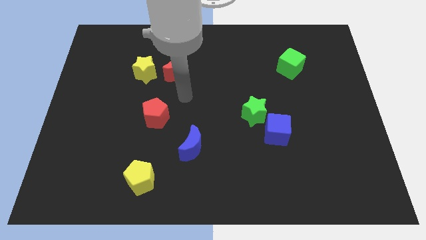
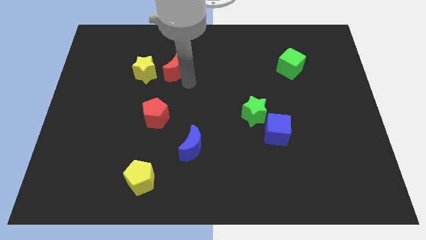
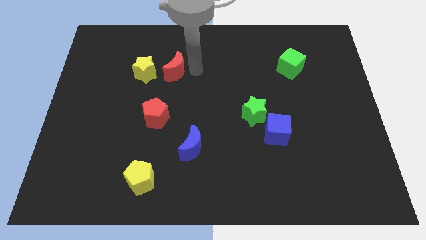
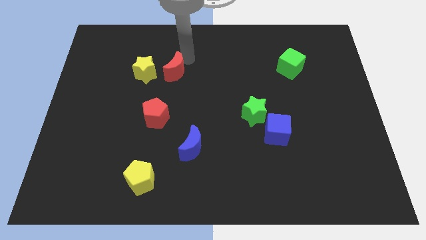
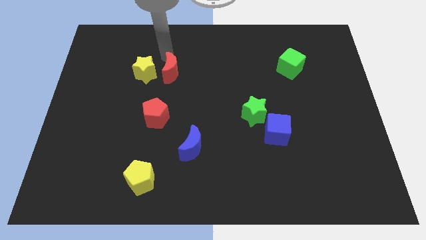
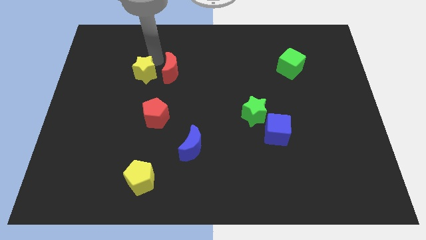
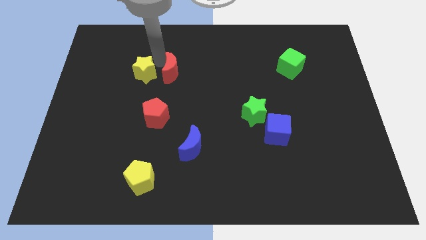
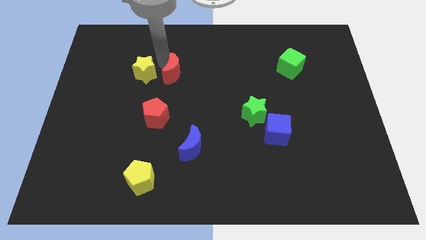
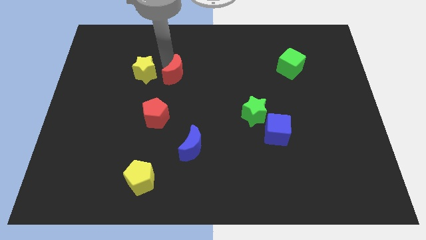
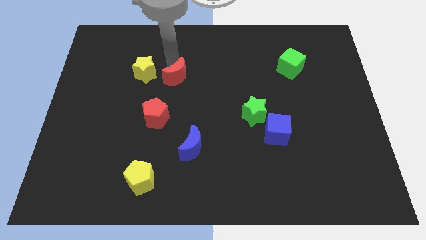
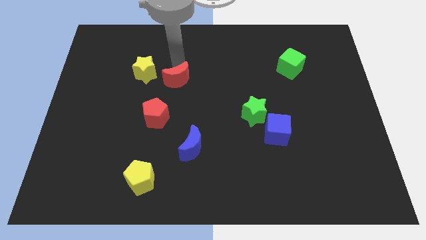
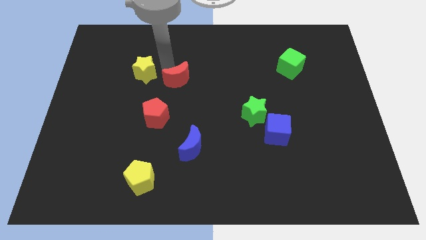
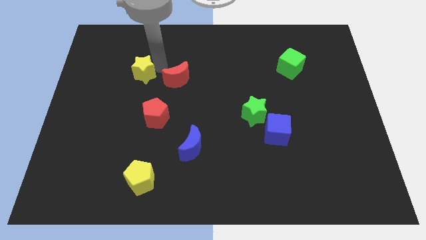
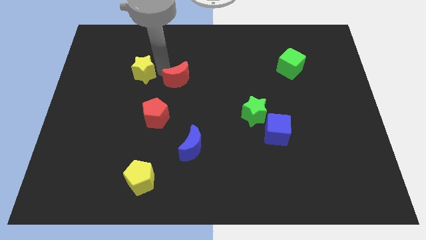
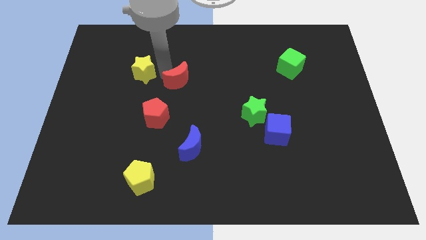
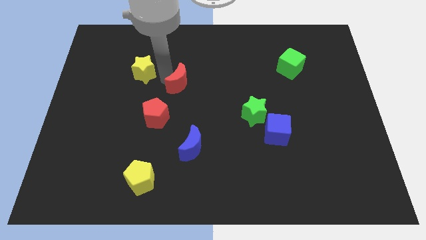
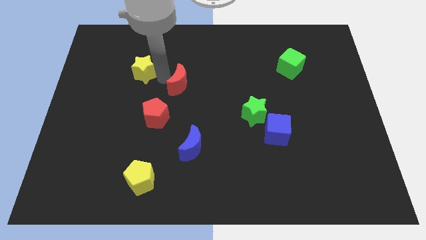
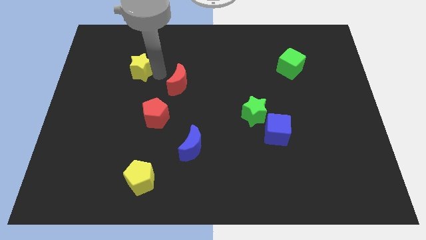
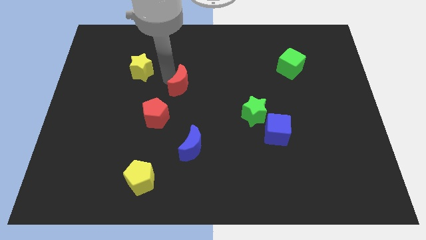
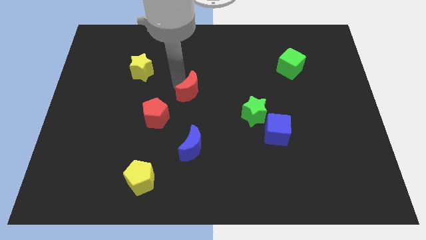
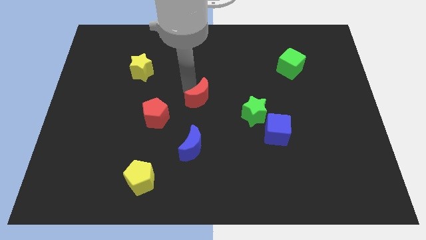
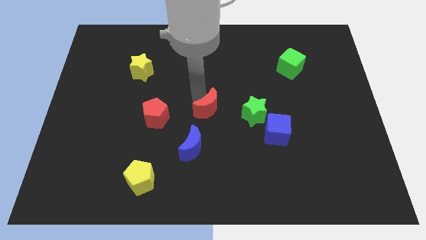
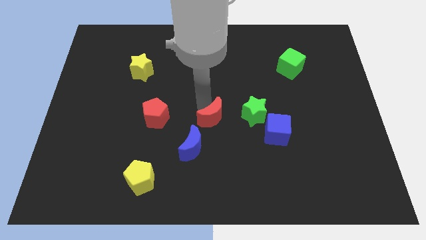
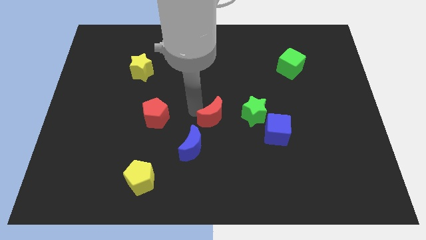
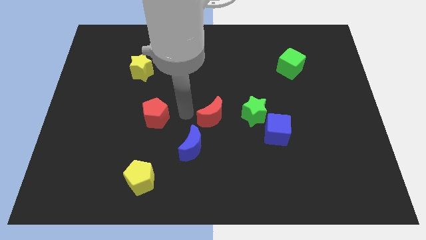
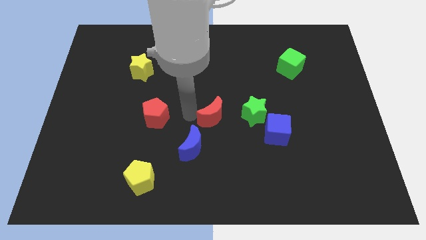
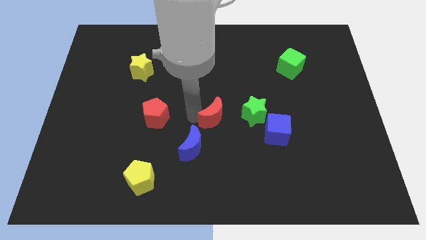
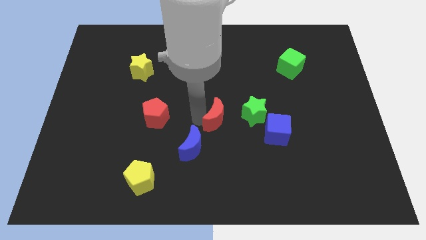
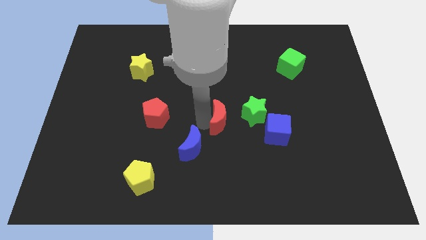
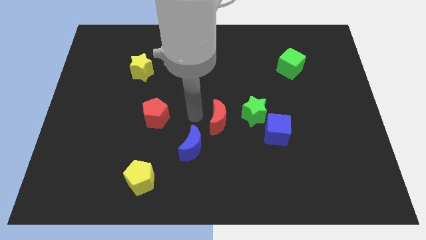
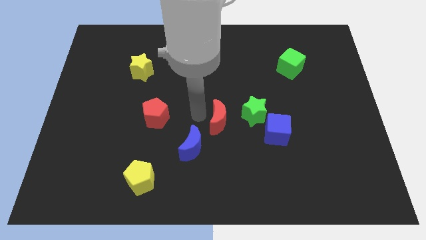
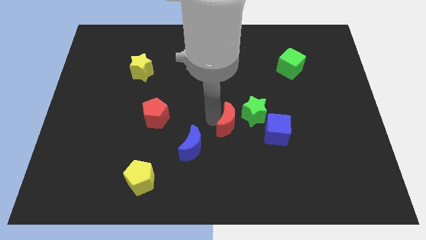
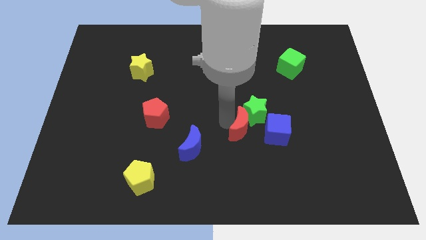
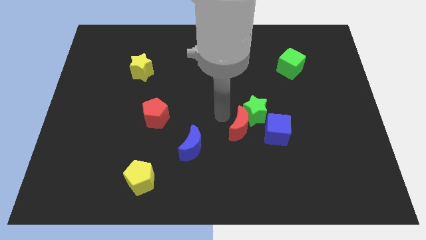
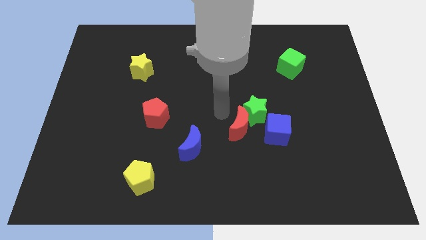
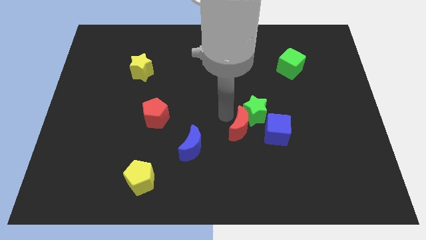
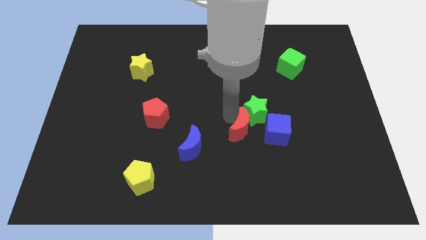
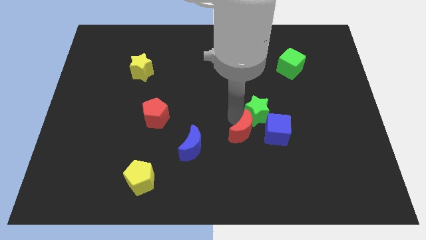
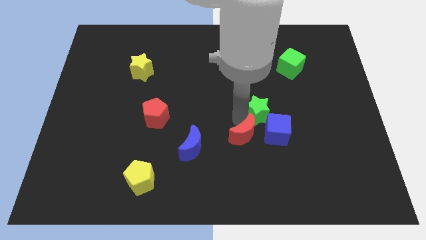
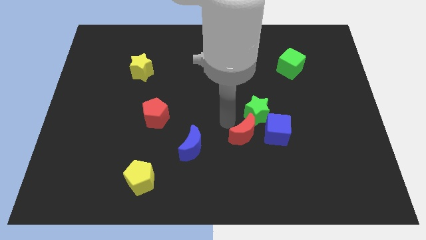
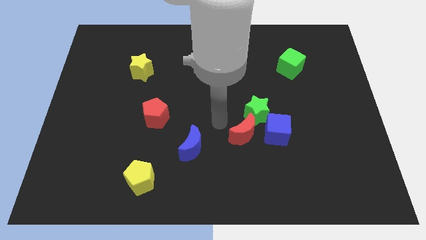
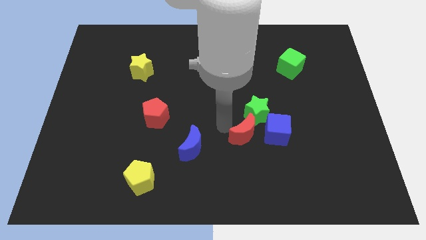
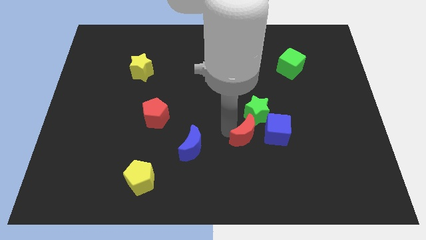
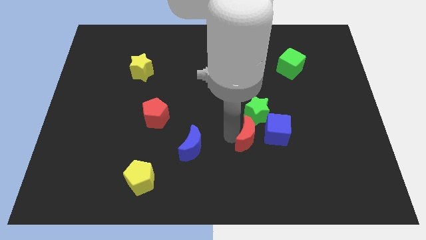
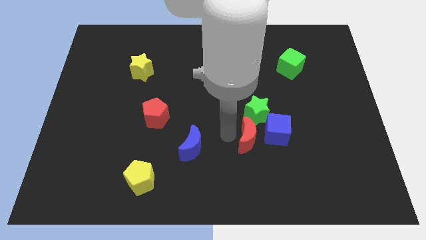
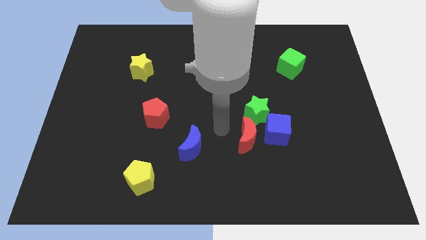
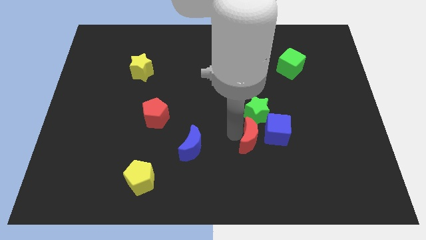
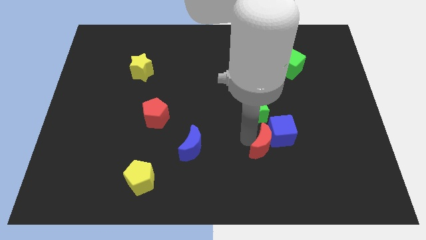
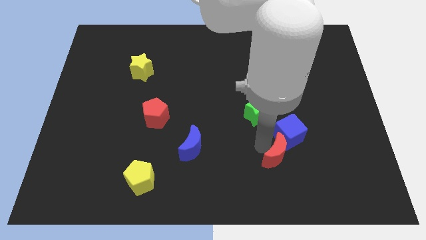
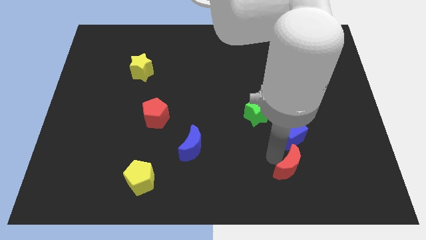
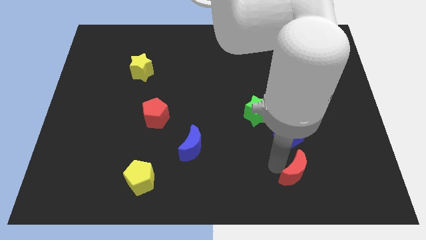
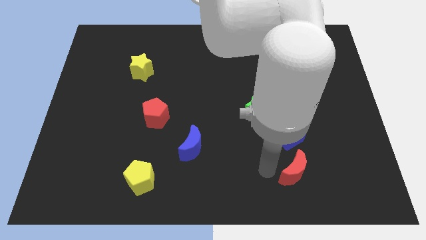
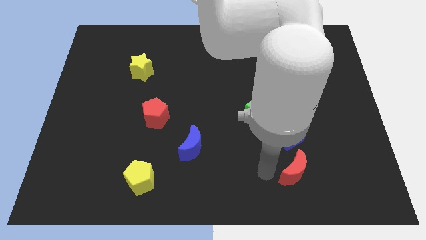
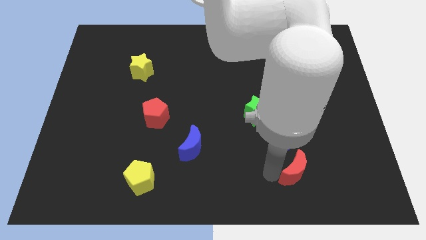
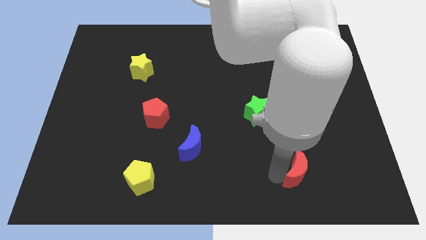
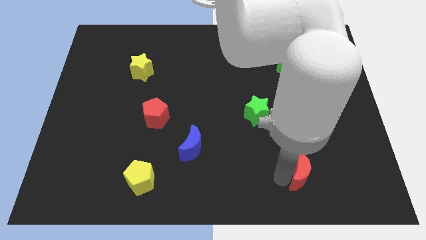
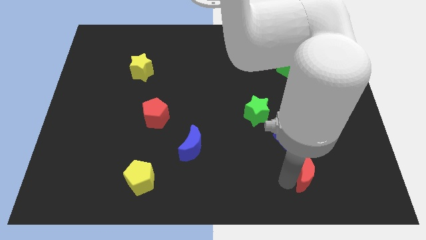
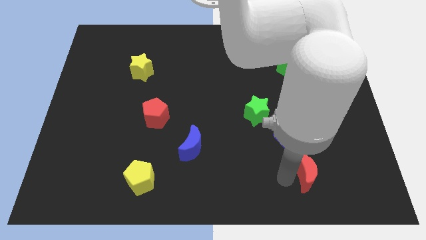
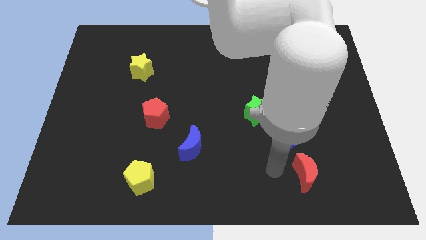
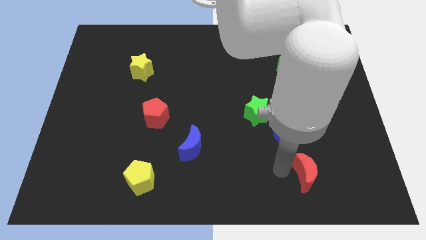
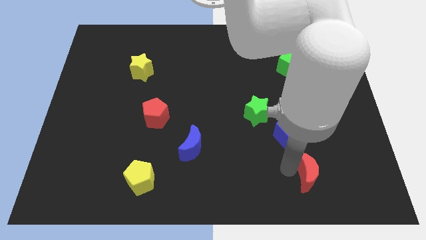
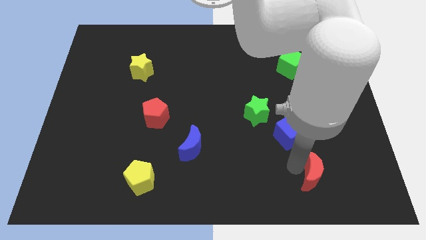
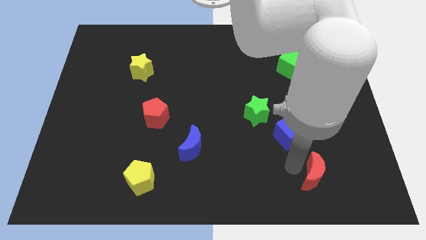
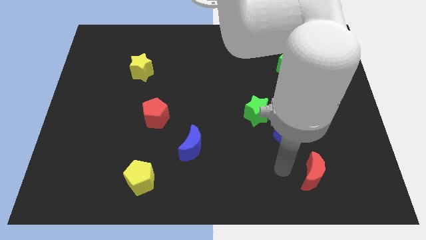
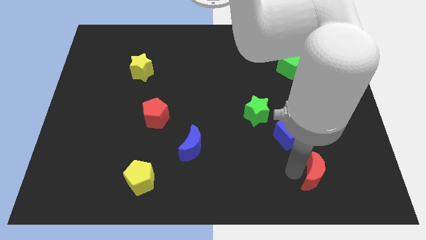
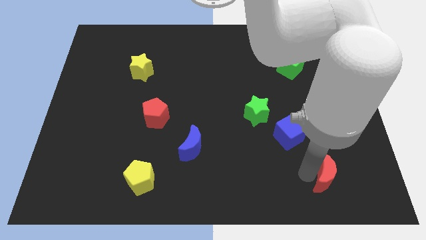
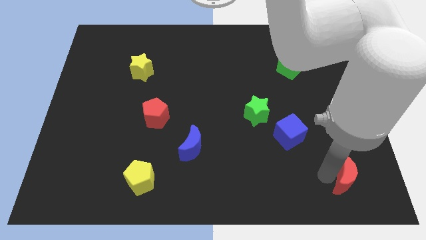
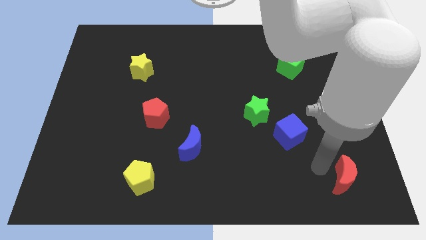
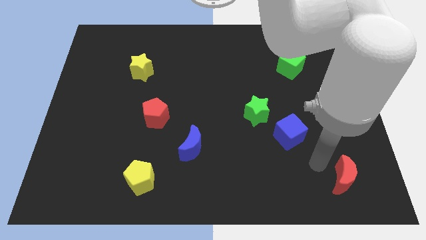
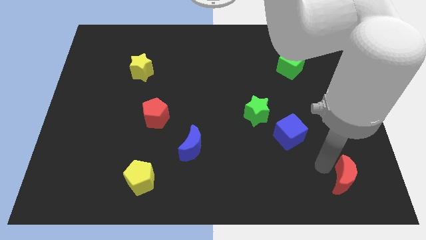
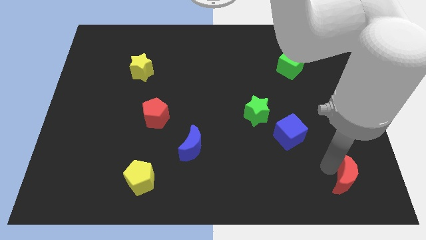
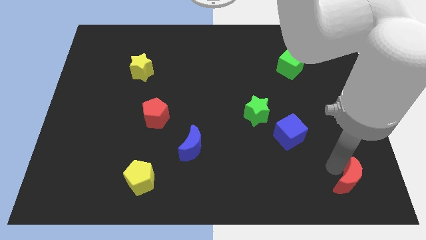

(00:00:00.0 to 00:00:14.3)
put the red moon to the bottom right
